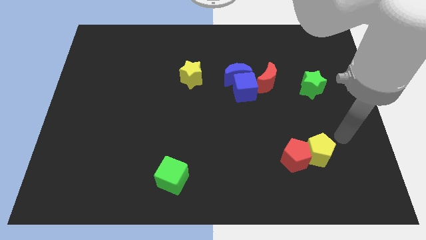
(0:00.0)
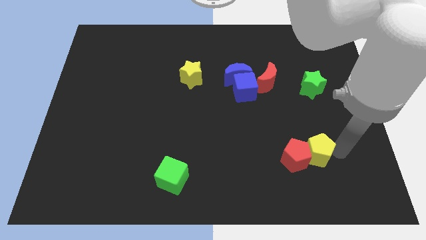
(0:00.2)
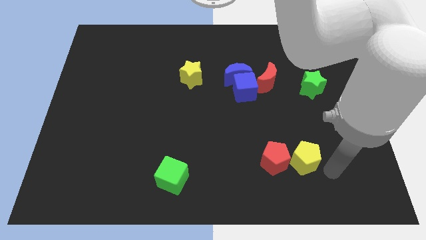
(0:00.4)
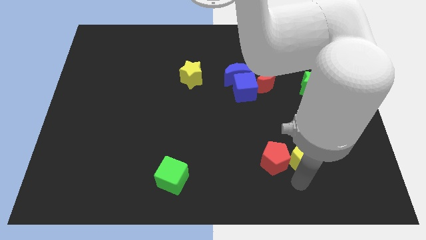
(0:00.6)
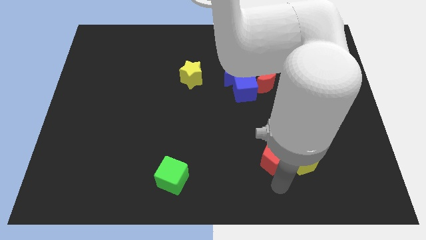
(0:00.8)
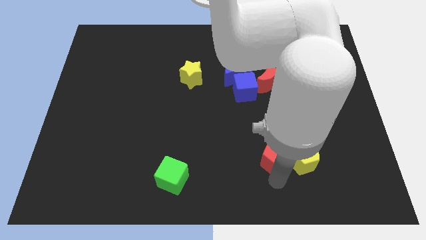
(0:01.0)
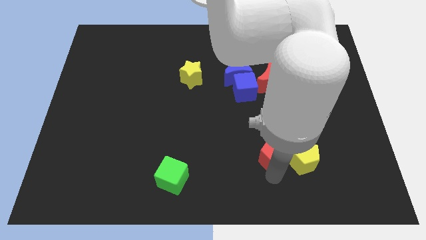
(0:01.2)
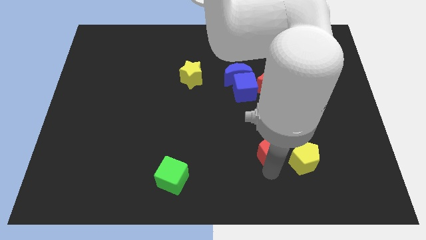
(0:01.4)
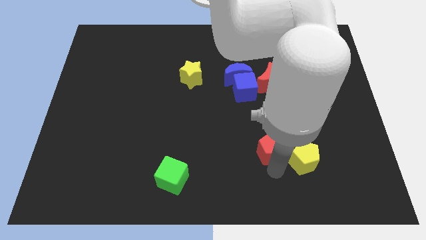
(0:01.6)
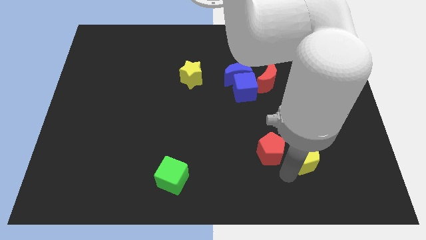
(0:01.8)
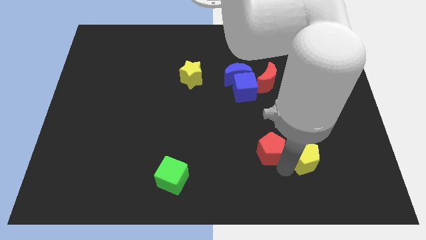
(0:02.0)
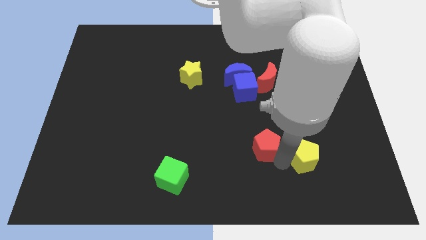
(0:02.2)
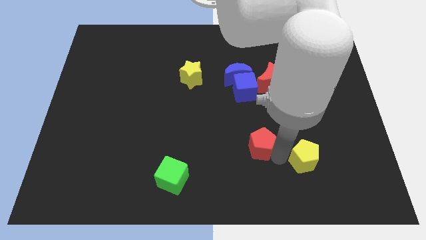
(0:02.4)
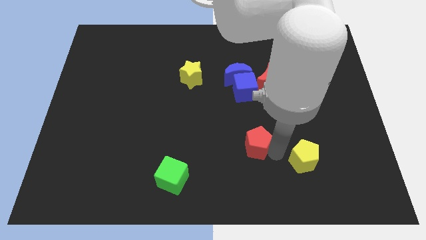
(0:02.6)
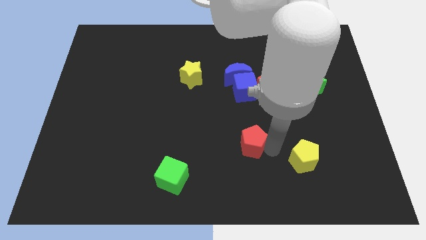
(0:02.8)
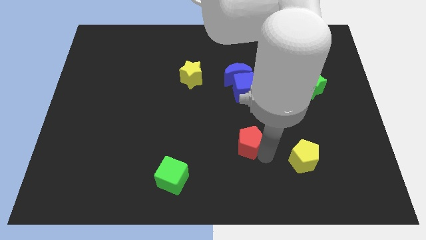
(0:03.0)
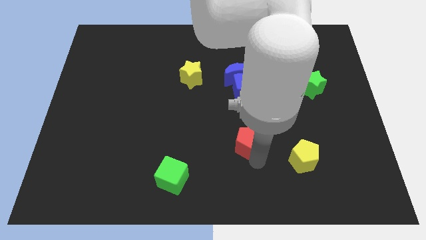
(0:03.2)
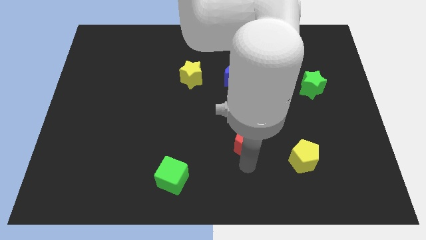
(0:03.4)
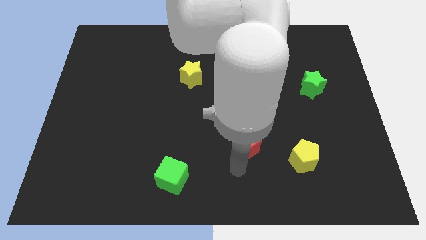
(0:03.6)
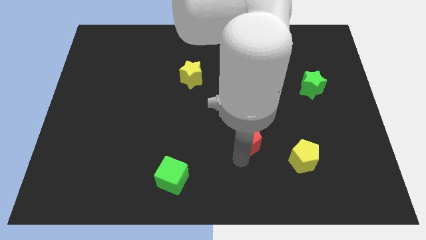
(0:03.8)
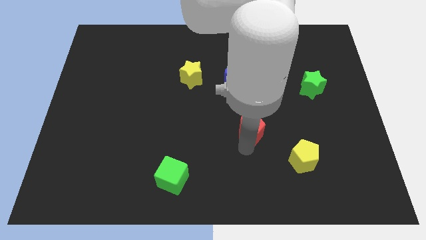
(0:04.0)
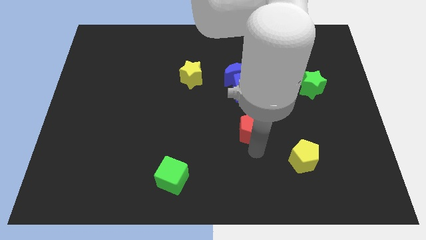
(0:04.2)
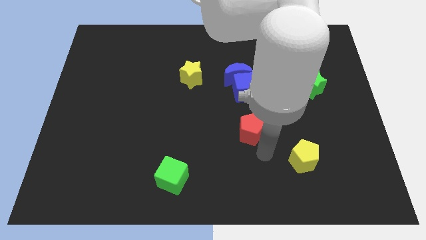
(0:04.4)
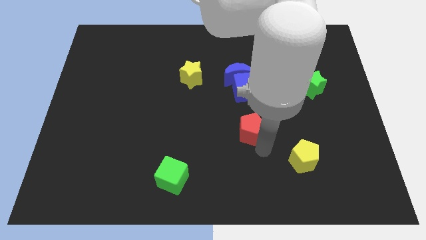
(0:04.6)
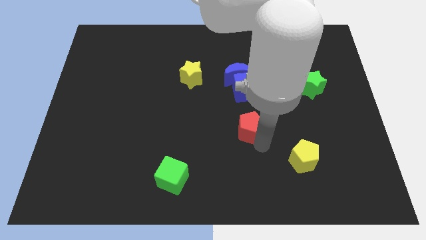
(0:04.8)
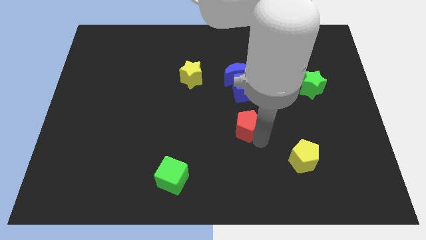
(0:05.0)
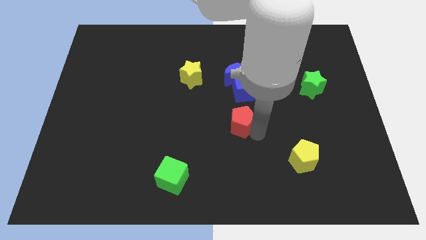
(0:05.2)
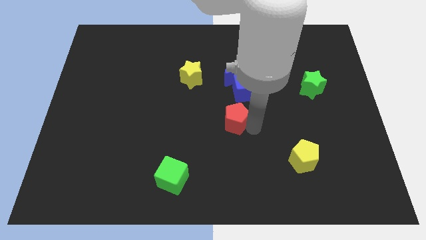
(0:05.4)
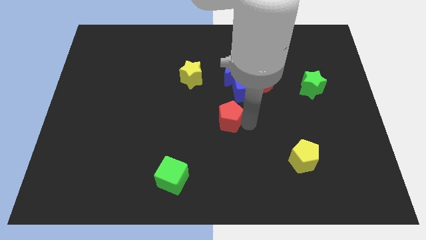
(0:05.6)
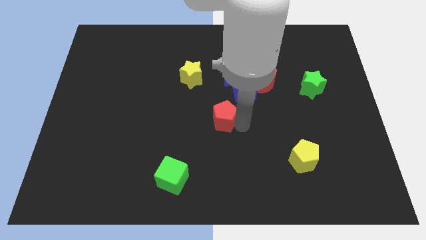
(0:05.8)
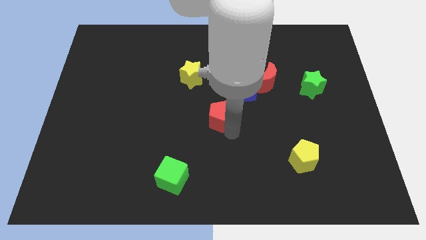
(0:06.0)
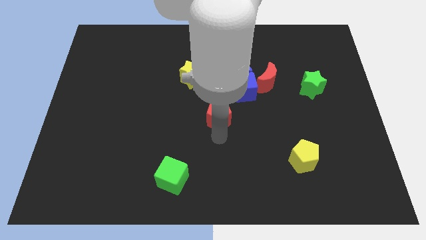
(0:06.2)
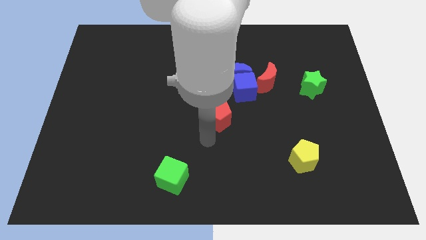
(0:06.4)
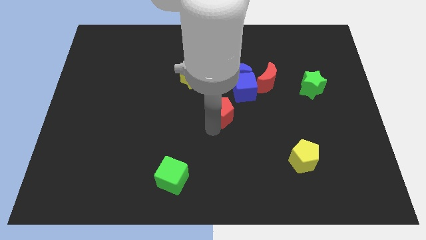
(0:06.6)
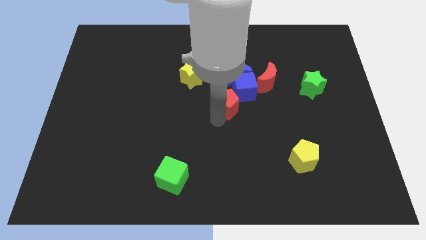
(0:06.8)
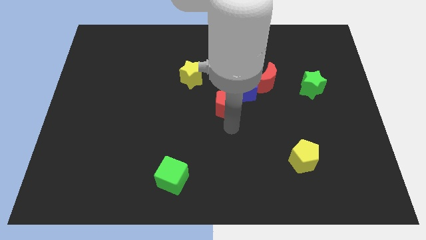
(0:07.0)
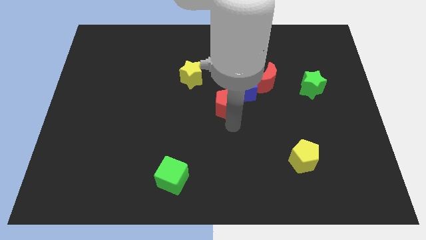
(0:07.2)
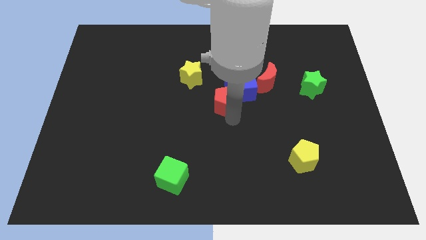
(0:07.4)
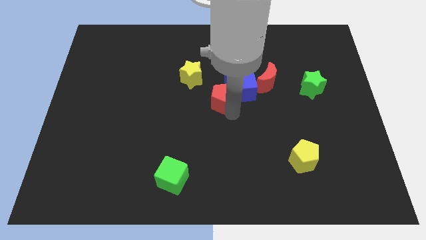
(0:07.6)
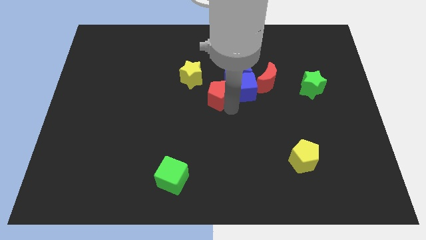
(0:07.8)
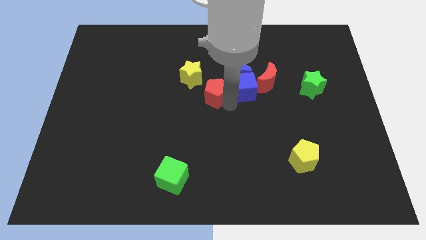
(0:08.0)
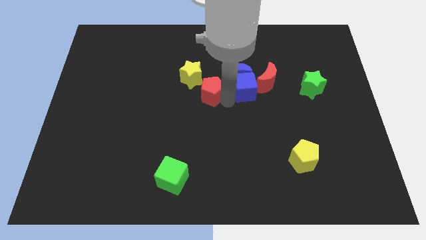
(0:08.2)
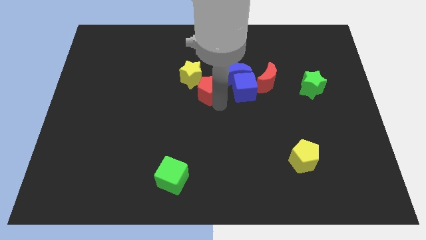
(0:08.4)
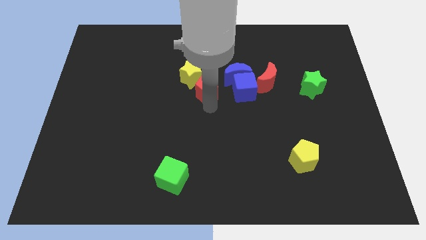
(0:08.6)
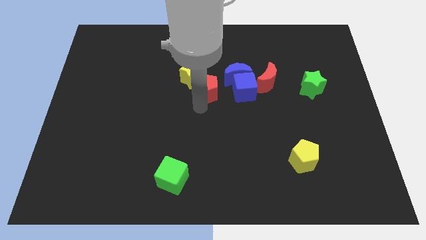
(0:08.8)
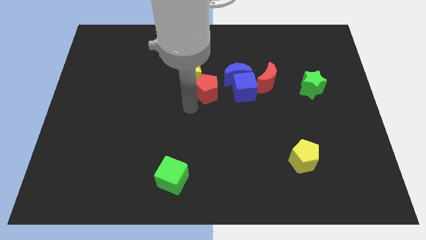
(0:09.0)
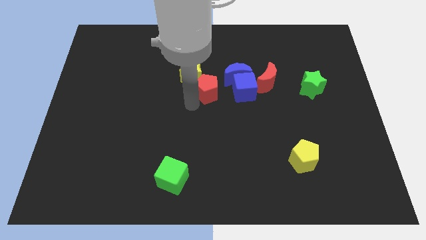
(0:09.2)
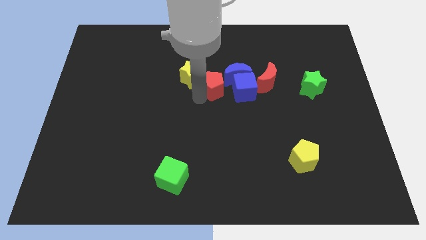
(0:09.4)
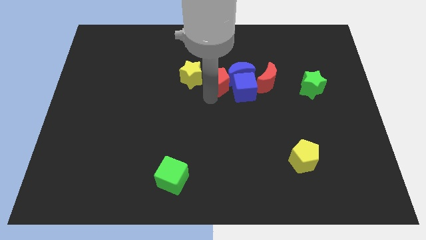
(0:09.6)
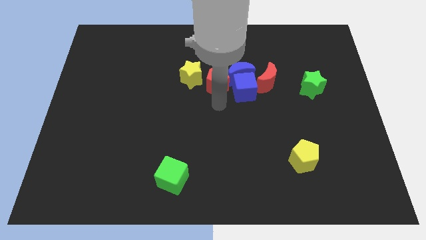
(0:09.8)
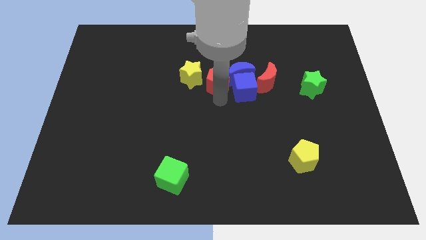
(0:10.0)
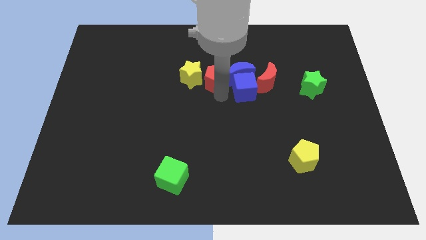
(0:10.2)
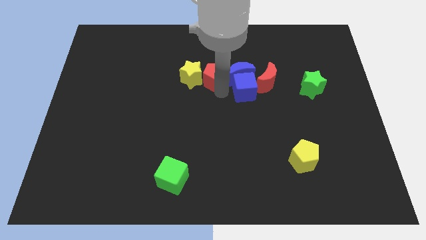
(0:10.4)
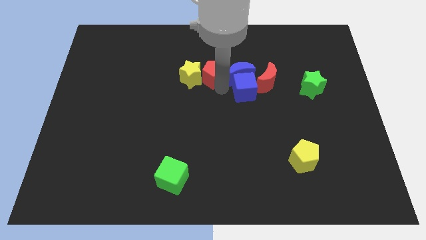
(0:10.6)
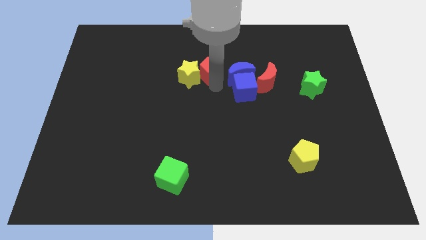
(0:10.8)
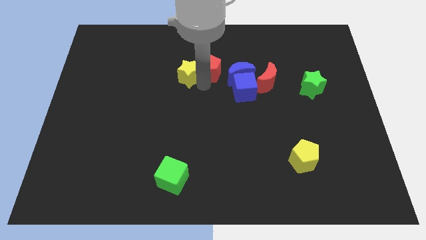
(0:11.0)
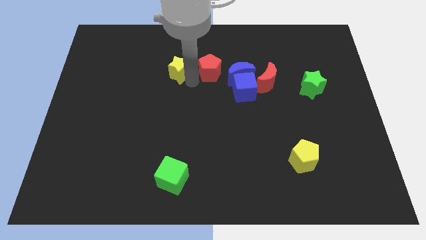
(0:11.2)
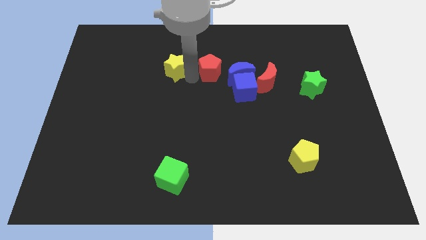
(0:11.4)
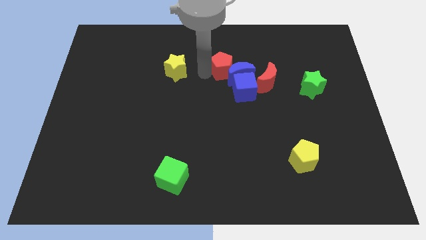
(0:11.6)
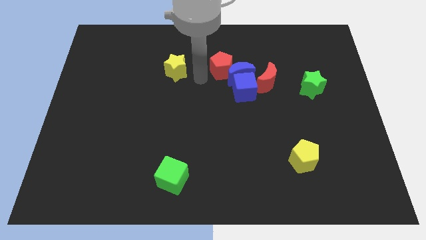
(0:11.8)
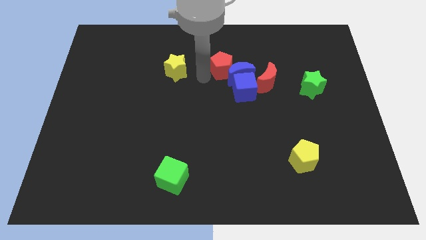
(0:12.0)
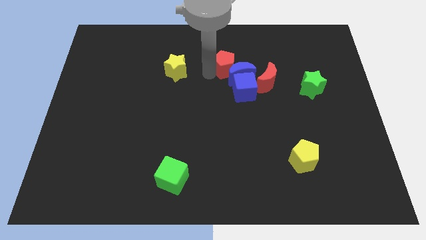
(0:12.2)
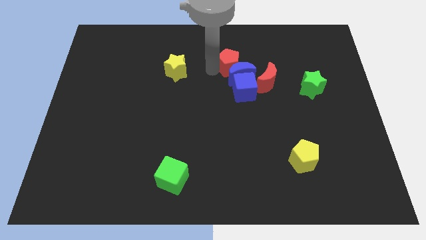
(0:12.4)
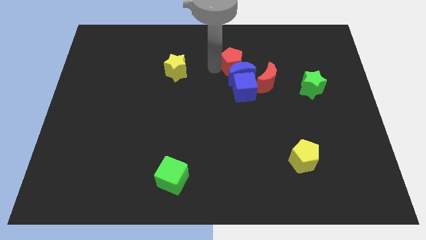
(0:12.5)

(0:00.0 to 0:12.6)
slide the red pentagon to the top right of the blue moon
